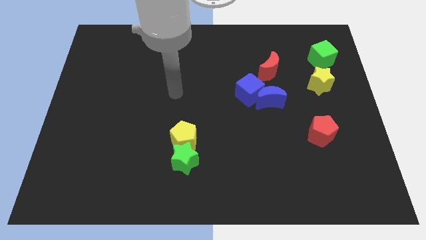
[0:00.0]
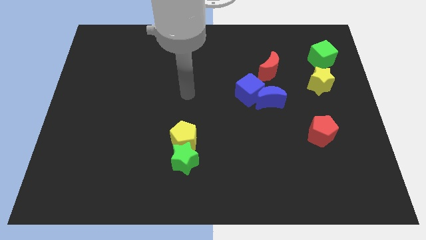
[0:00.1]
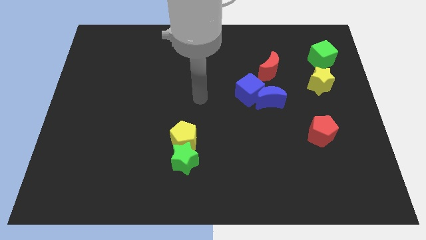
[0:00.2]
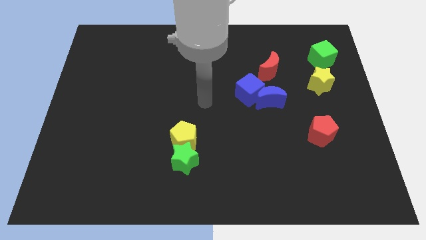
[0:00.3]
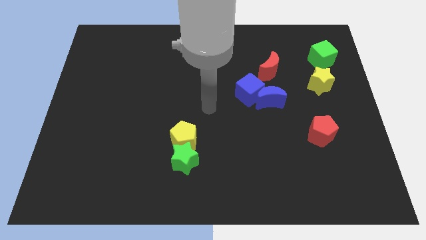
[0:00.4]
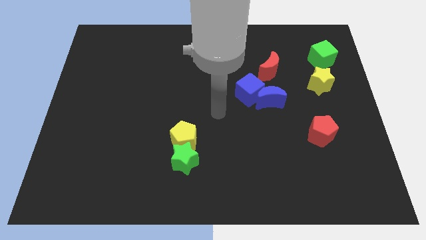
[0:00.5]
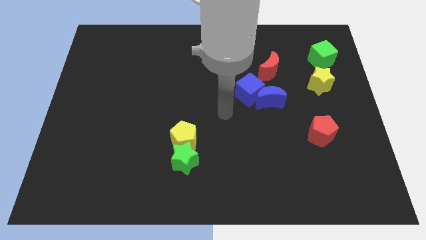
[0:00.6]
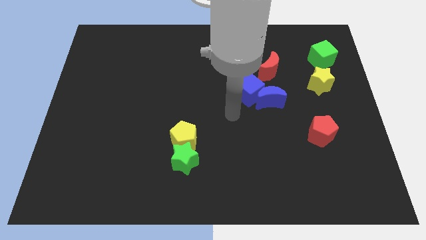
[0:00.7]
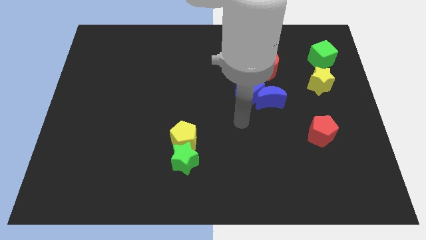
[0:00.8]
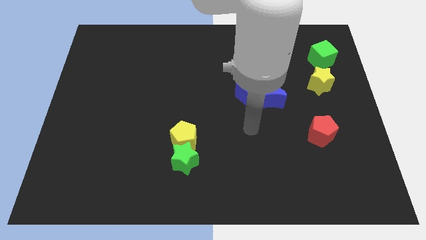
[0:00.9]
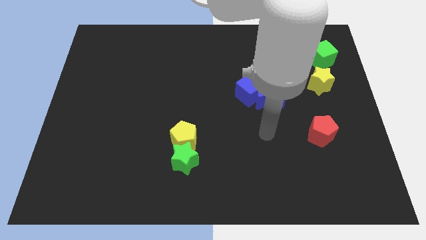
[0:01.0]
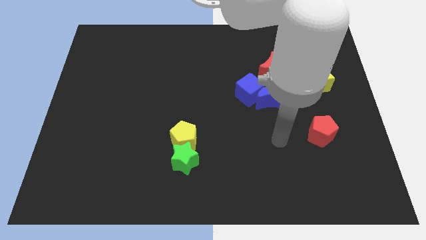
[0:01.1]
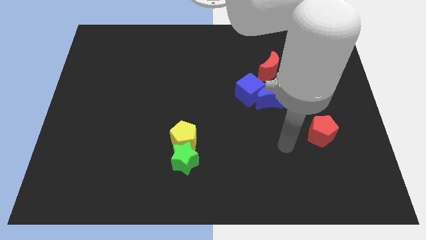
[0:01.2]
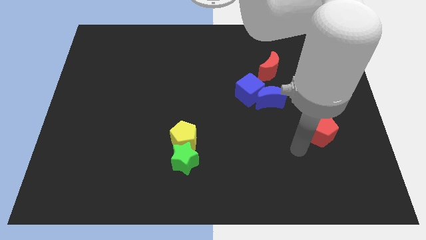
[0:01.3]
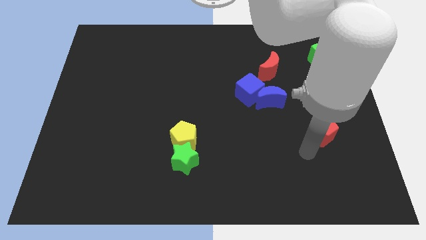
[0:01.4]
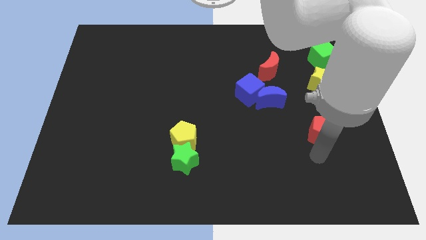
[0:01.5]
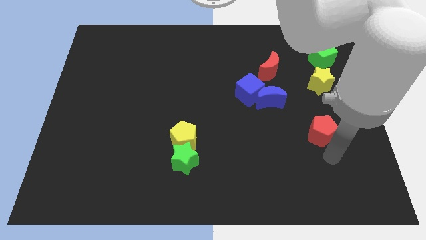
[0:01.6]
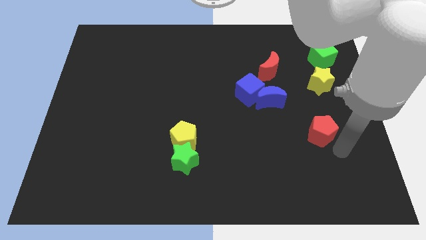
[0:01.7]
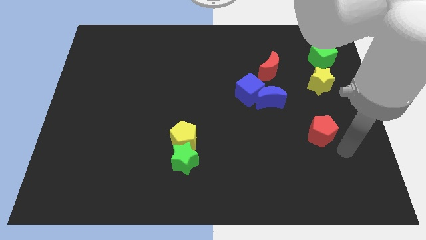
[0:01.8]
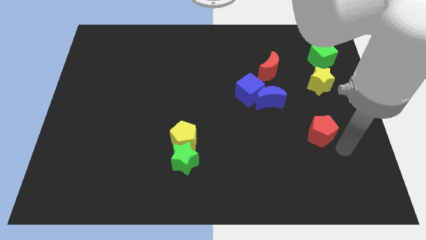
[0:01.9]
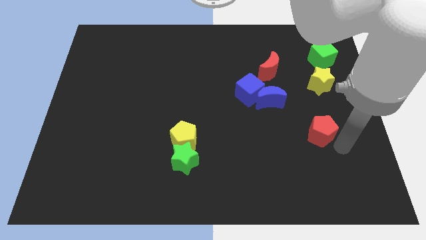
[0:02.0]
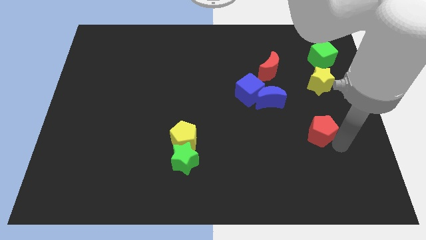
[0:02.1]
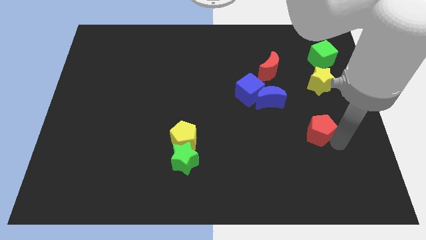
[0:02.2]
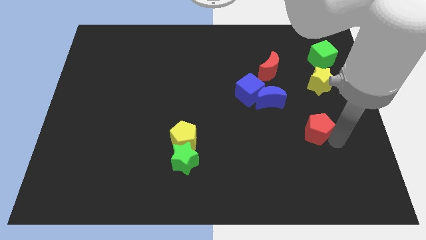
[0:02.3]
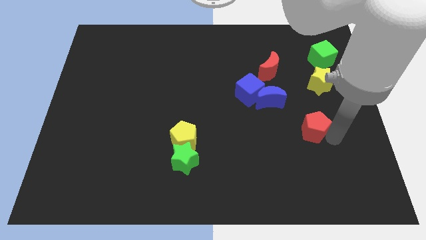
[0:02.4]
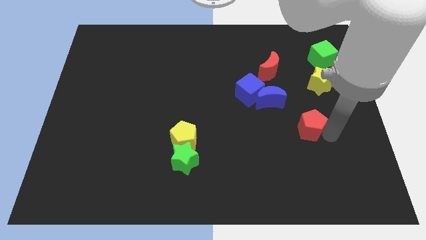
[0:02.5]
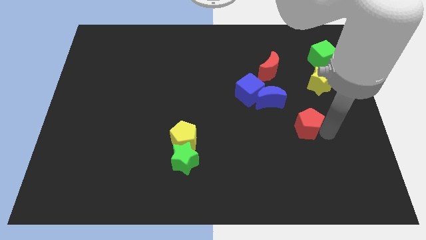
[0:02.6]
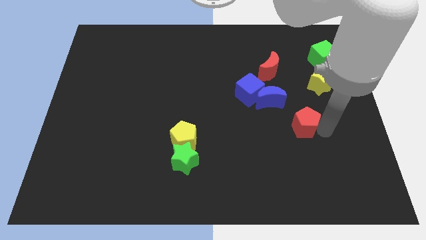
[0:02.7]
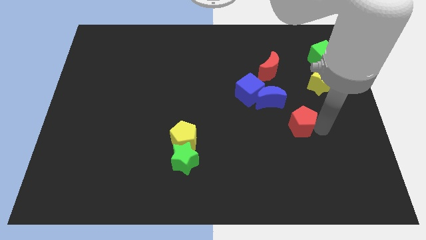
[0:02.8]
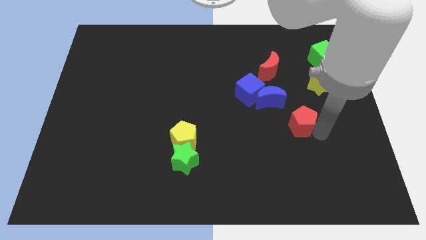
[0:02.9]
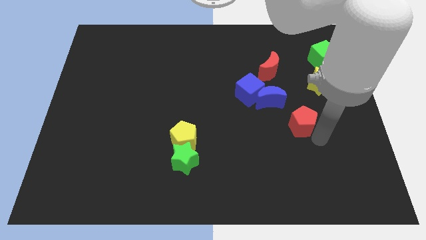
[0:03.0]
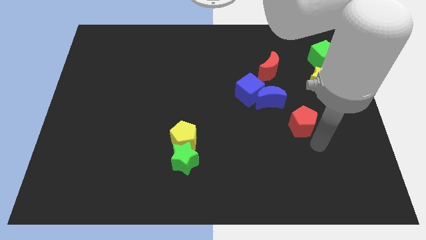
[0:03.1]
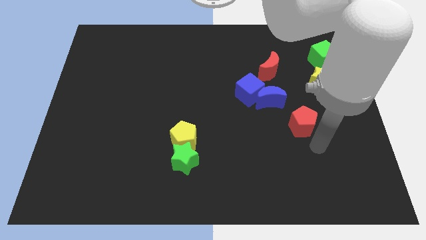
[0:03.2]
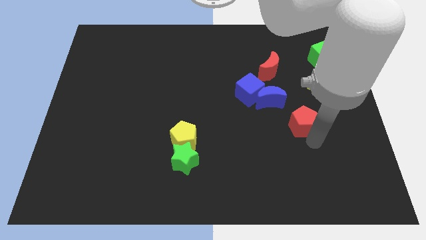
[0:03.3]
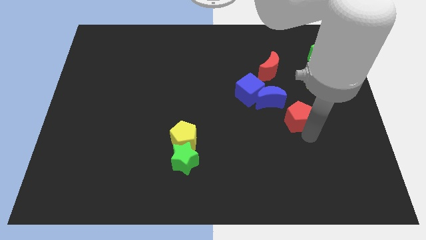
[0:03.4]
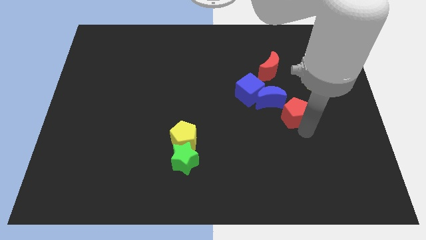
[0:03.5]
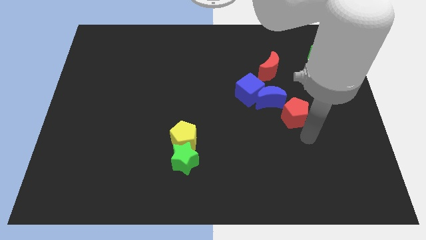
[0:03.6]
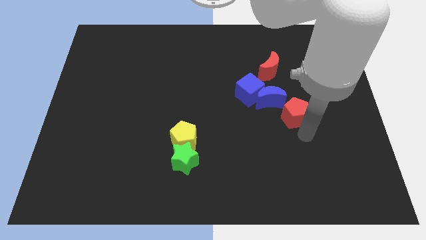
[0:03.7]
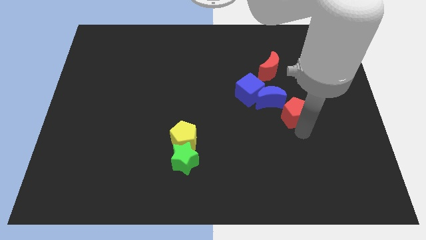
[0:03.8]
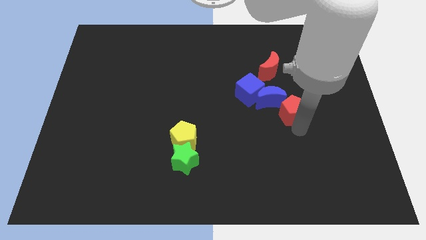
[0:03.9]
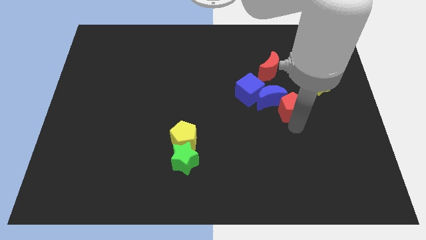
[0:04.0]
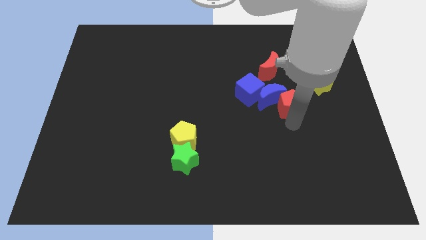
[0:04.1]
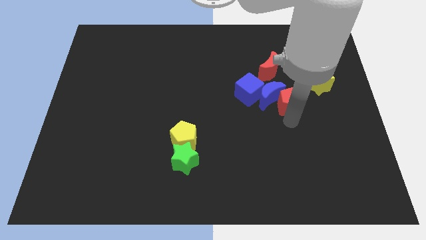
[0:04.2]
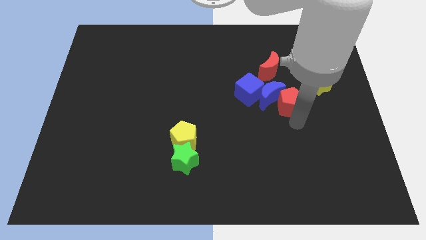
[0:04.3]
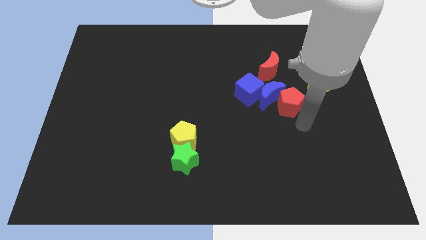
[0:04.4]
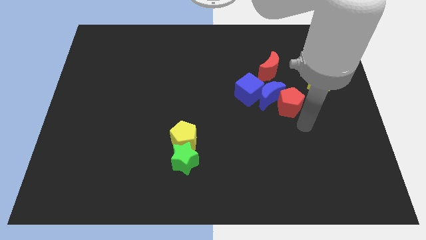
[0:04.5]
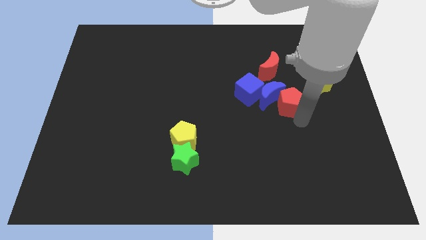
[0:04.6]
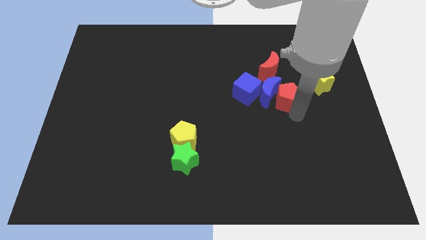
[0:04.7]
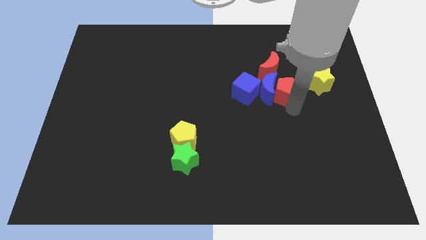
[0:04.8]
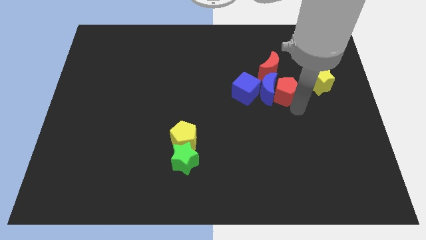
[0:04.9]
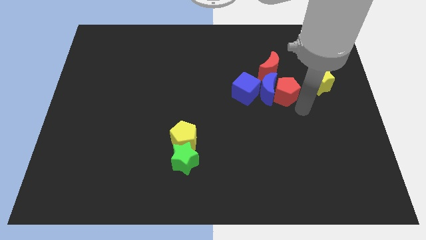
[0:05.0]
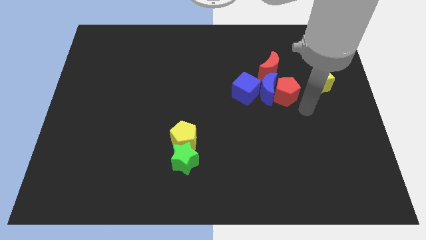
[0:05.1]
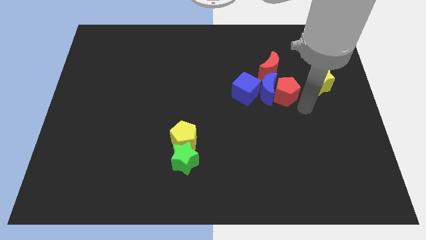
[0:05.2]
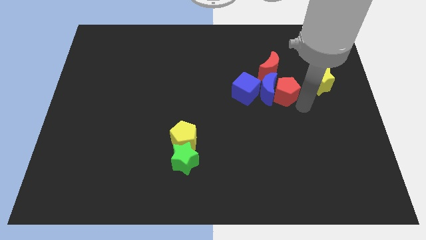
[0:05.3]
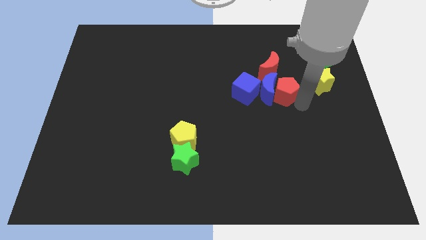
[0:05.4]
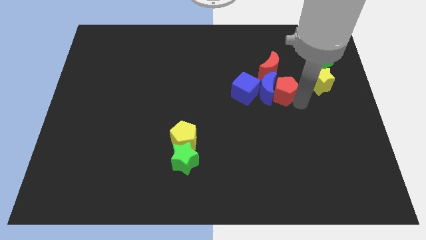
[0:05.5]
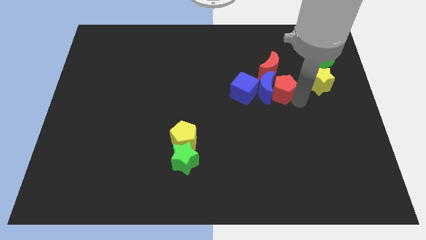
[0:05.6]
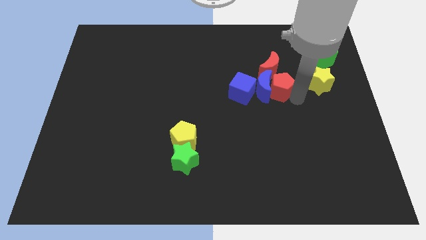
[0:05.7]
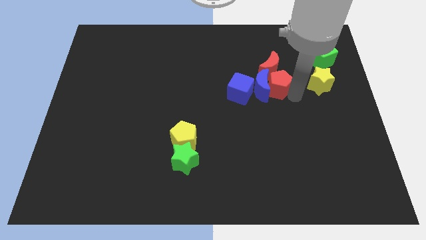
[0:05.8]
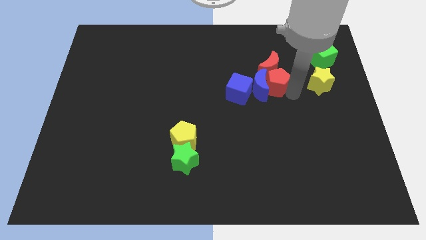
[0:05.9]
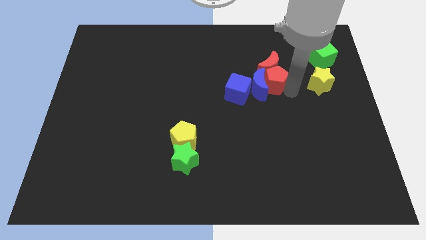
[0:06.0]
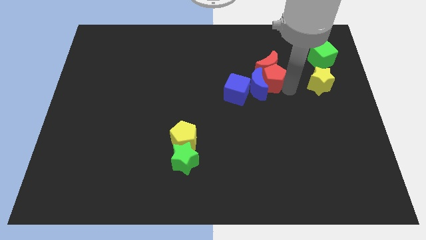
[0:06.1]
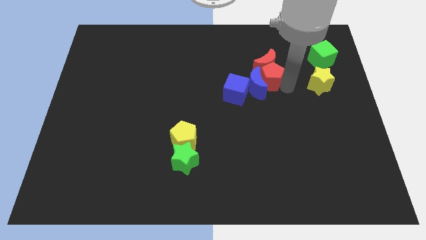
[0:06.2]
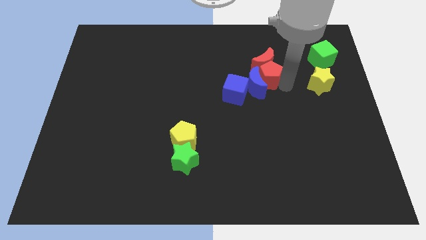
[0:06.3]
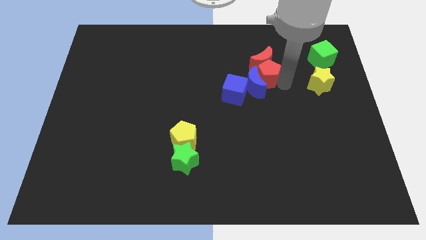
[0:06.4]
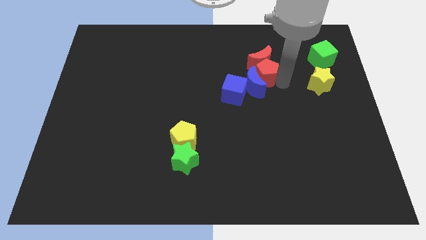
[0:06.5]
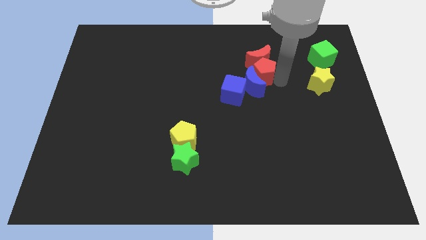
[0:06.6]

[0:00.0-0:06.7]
slide the red pentagon diagonally up and to the left

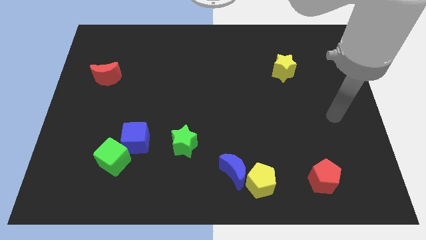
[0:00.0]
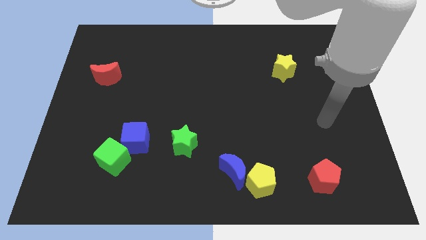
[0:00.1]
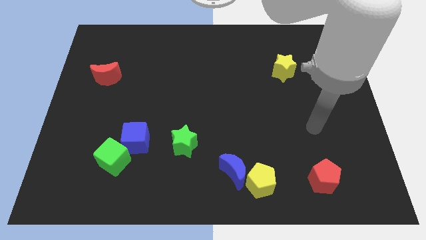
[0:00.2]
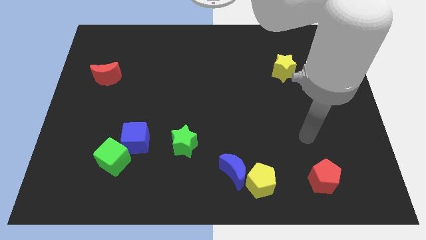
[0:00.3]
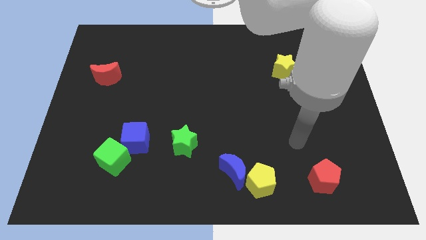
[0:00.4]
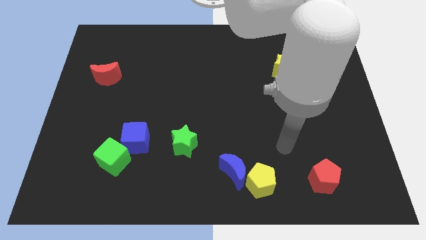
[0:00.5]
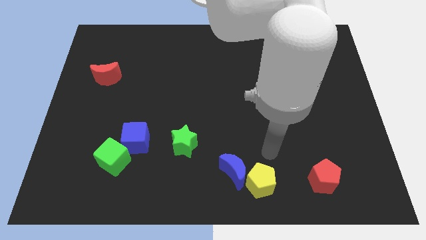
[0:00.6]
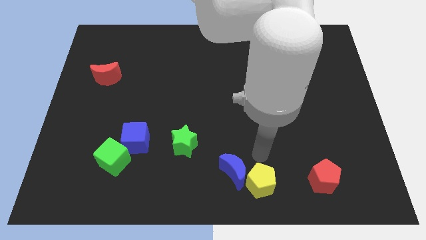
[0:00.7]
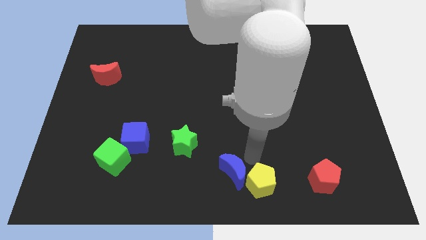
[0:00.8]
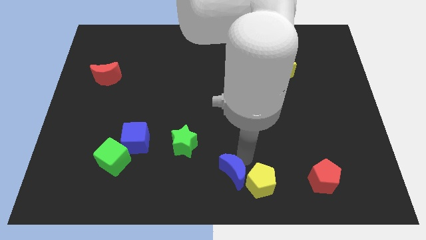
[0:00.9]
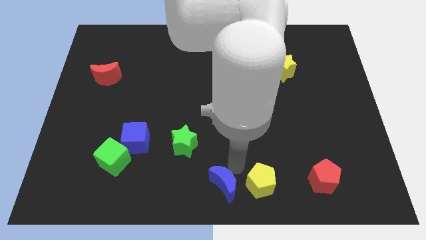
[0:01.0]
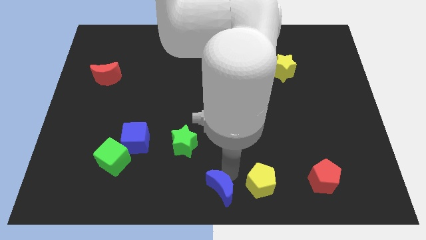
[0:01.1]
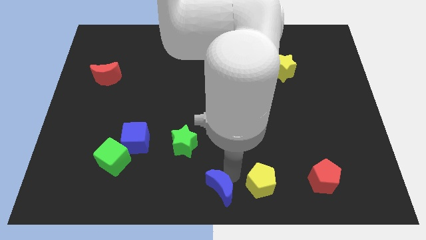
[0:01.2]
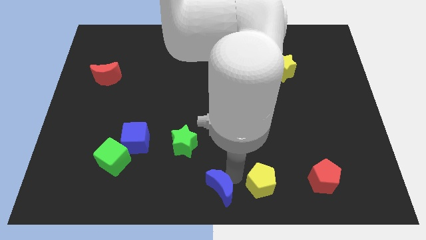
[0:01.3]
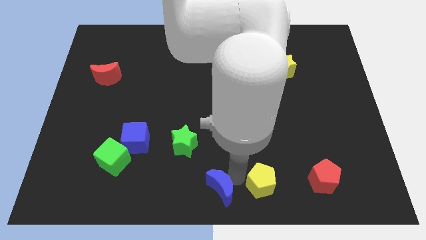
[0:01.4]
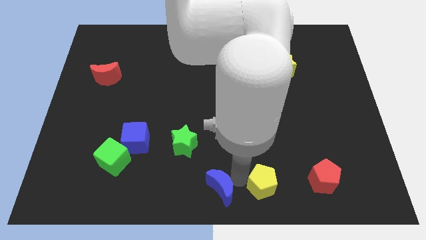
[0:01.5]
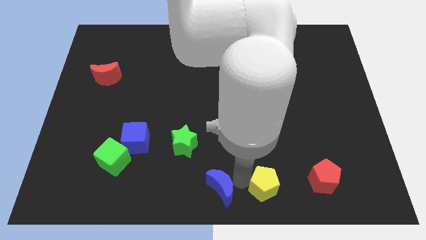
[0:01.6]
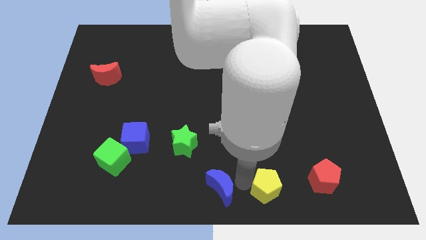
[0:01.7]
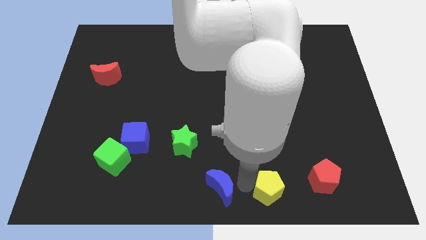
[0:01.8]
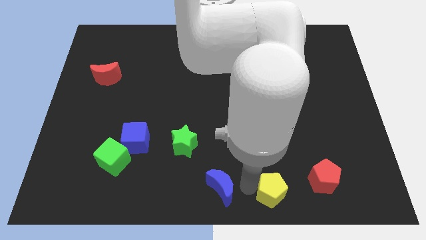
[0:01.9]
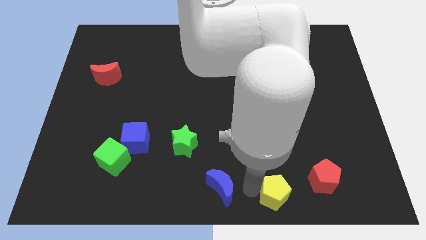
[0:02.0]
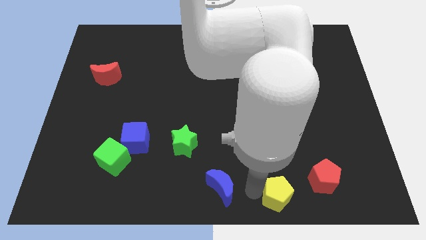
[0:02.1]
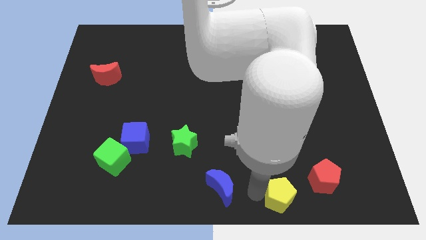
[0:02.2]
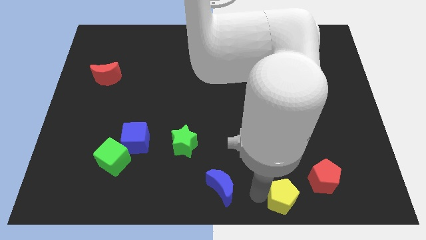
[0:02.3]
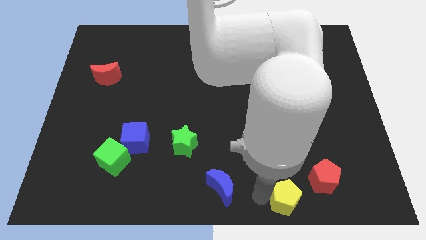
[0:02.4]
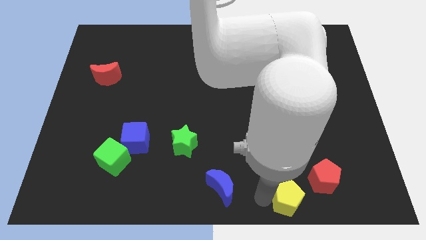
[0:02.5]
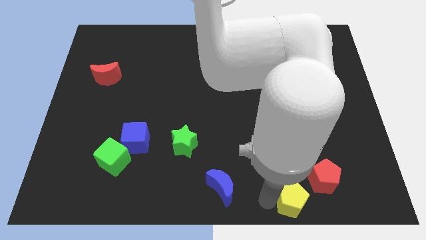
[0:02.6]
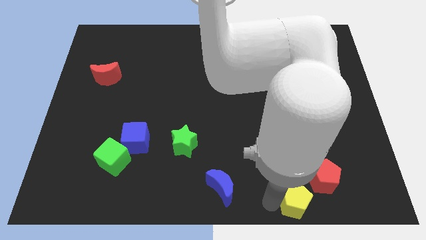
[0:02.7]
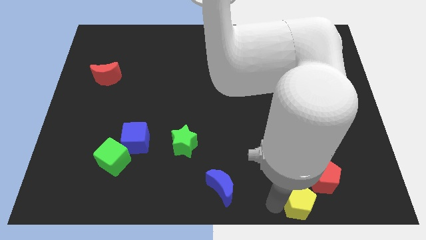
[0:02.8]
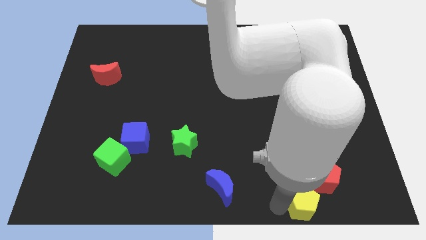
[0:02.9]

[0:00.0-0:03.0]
slightly move the yellow pentagon right
